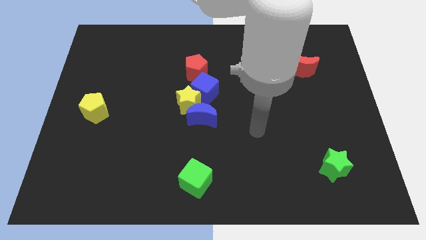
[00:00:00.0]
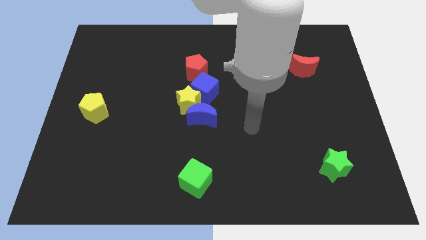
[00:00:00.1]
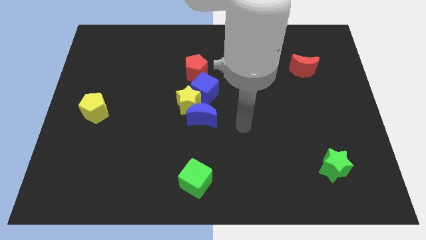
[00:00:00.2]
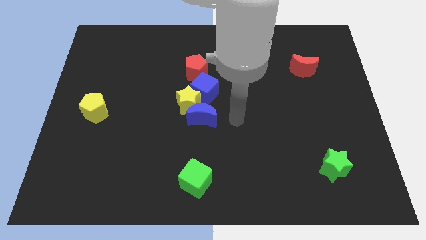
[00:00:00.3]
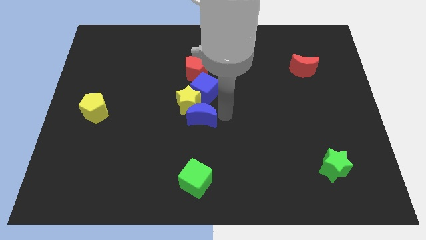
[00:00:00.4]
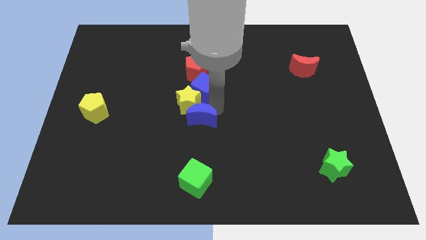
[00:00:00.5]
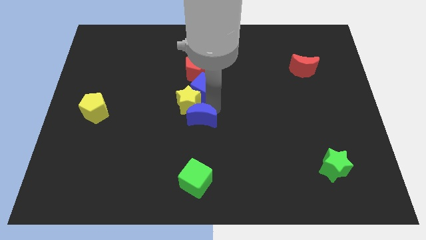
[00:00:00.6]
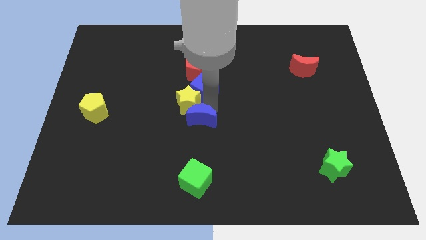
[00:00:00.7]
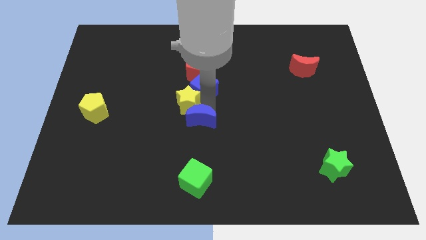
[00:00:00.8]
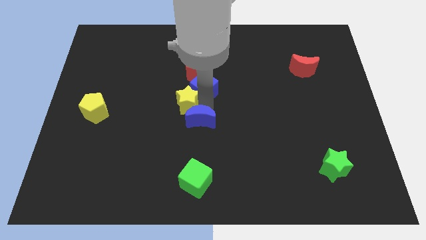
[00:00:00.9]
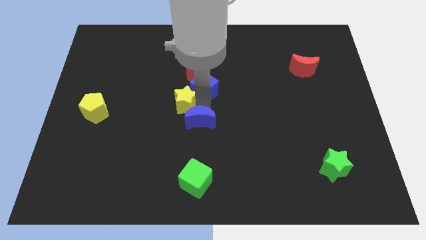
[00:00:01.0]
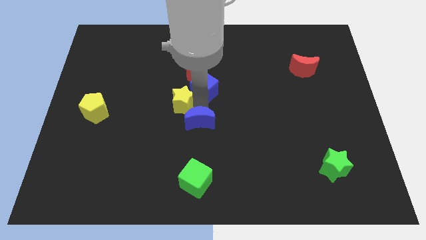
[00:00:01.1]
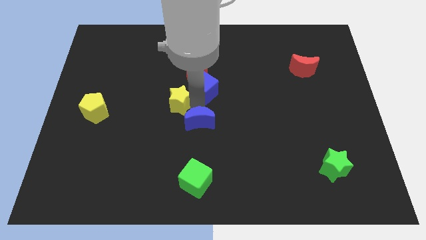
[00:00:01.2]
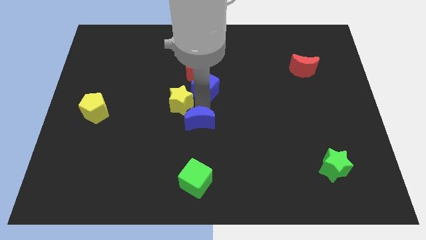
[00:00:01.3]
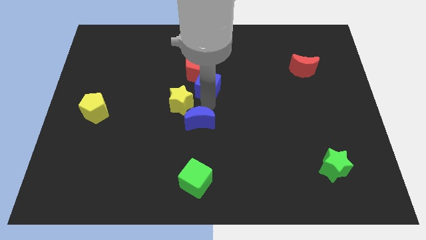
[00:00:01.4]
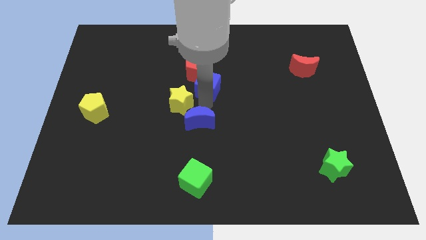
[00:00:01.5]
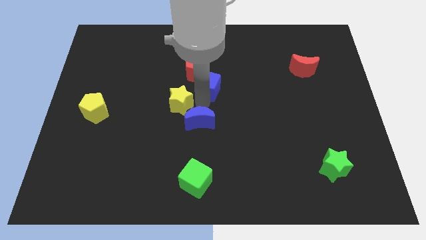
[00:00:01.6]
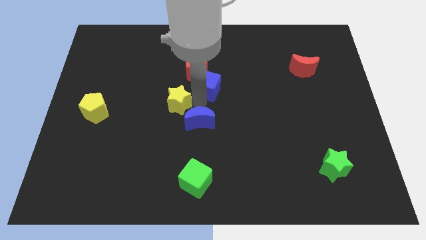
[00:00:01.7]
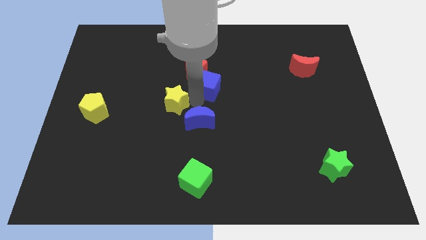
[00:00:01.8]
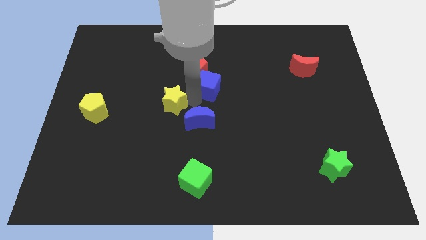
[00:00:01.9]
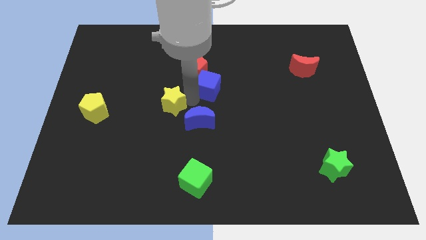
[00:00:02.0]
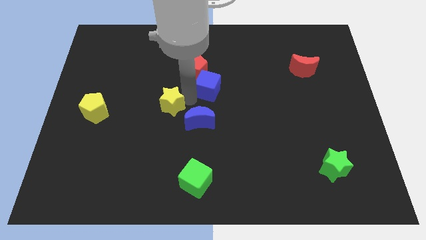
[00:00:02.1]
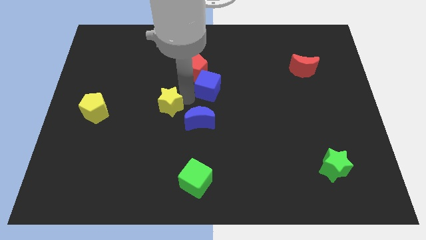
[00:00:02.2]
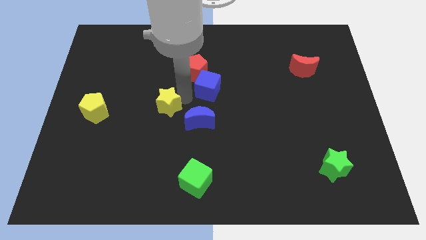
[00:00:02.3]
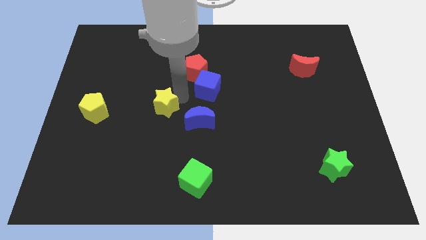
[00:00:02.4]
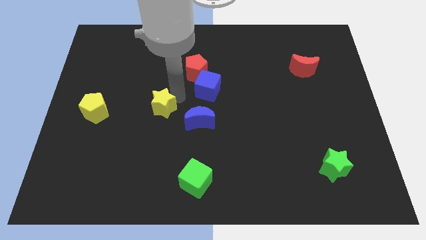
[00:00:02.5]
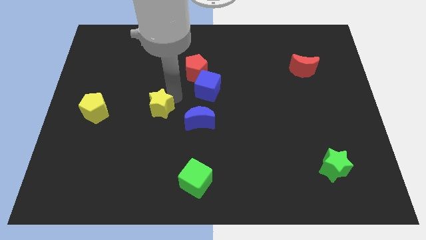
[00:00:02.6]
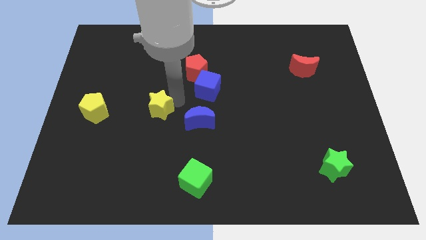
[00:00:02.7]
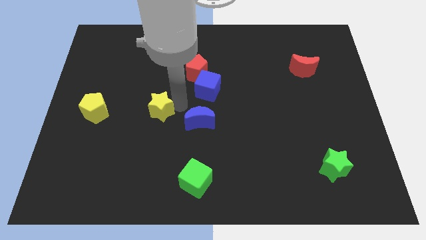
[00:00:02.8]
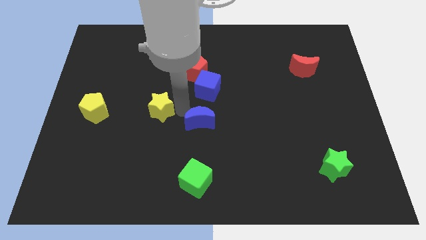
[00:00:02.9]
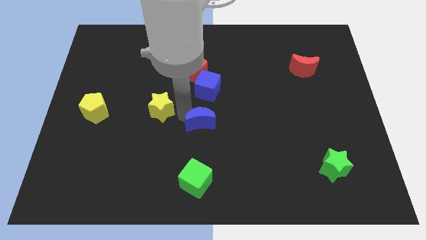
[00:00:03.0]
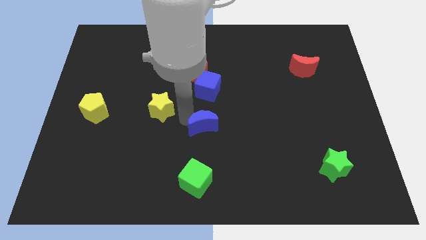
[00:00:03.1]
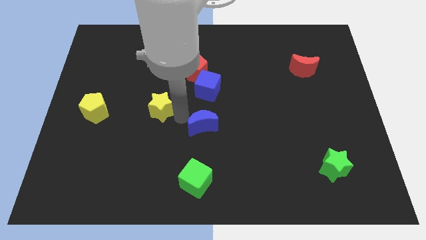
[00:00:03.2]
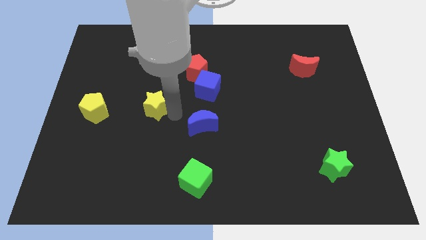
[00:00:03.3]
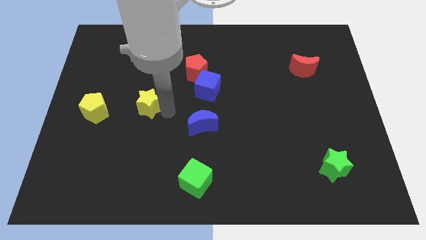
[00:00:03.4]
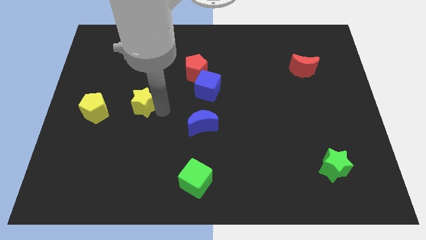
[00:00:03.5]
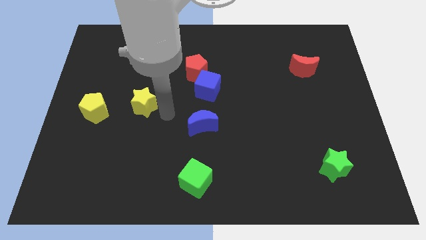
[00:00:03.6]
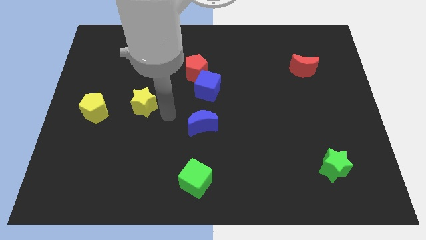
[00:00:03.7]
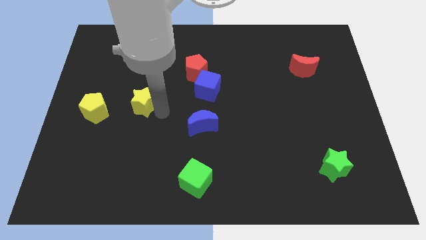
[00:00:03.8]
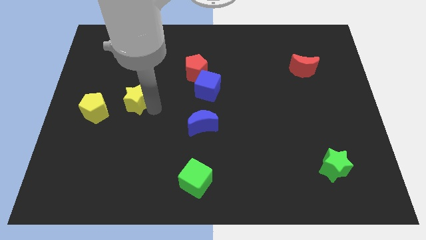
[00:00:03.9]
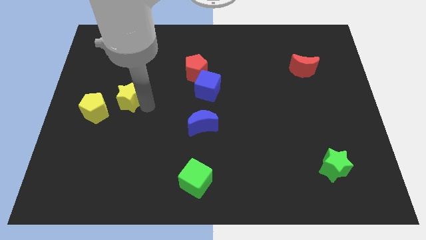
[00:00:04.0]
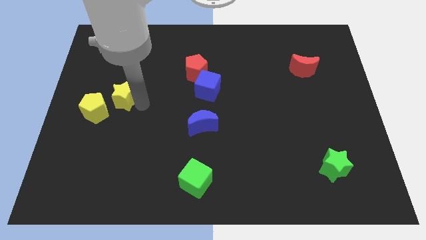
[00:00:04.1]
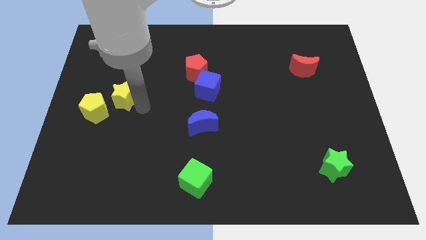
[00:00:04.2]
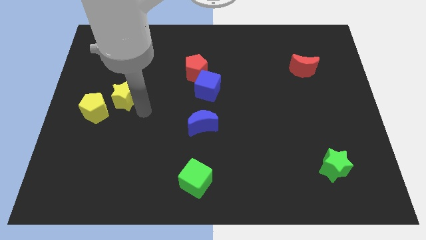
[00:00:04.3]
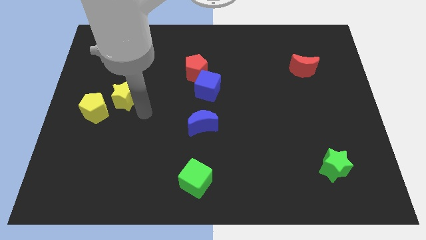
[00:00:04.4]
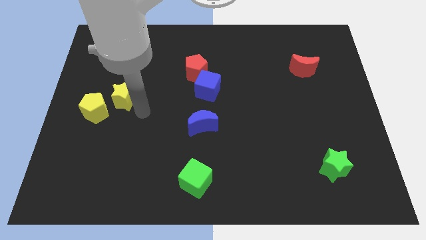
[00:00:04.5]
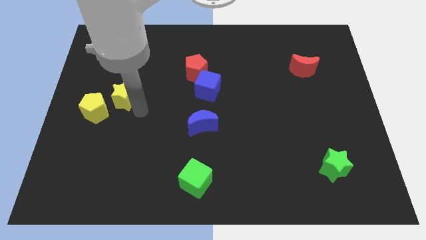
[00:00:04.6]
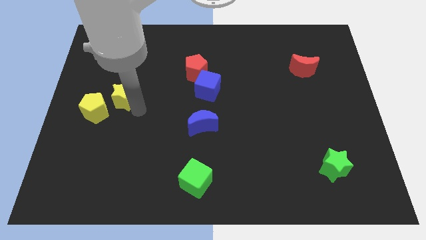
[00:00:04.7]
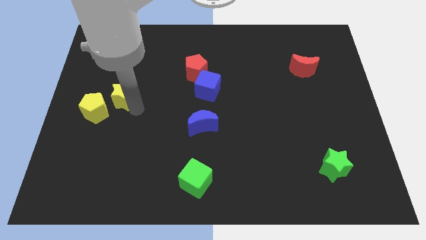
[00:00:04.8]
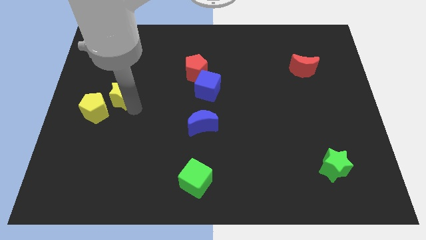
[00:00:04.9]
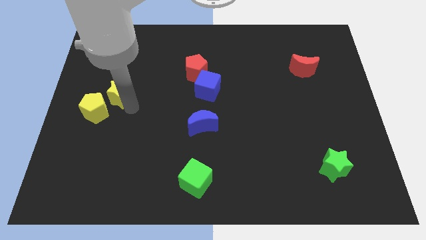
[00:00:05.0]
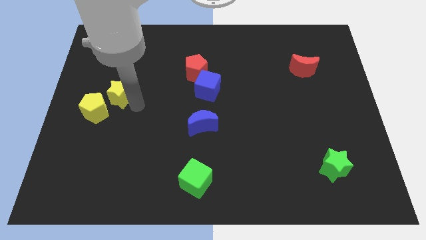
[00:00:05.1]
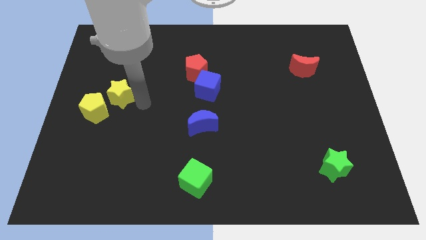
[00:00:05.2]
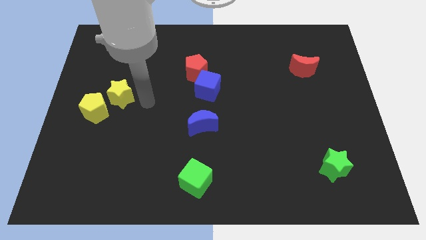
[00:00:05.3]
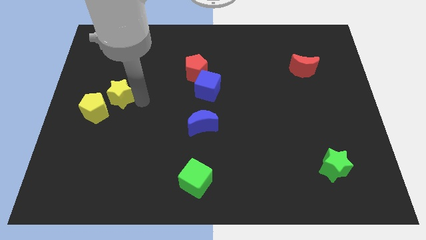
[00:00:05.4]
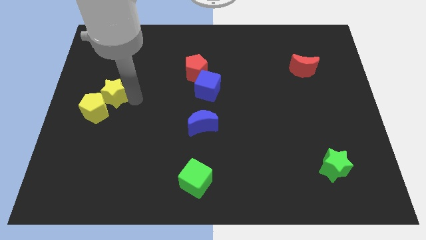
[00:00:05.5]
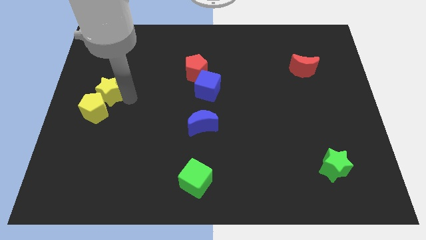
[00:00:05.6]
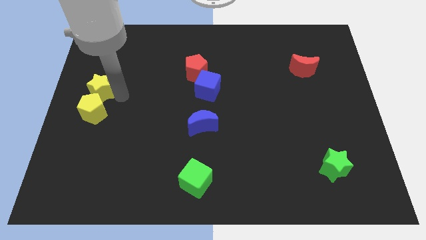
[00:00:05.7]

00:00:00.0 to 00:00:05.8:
move the yellow star to the left side

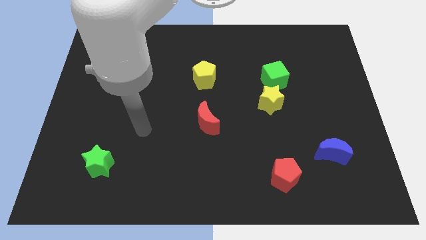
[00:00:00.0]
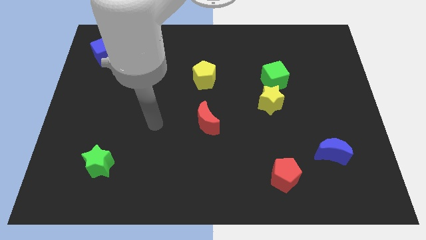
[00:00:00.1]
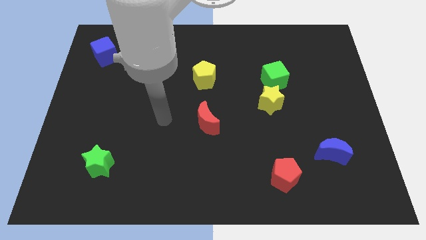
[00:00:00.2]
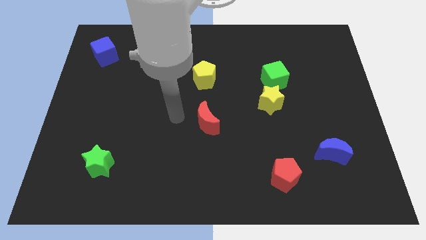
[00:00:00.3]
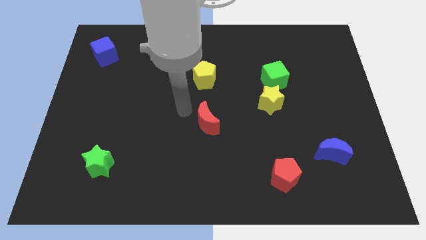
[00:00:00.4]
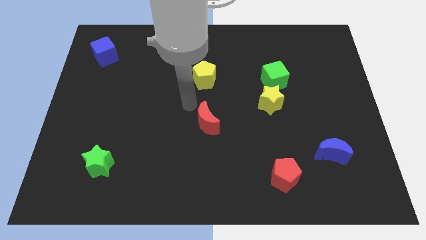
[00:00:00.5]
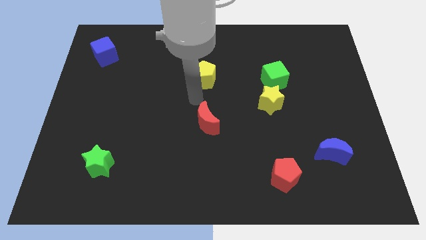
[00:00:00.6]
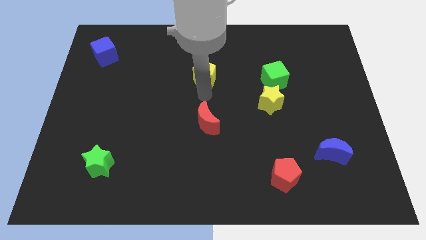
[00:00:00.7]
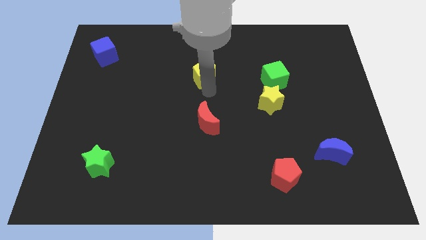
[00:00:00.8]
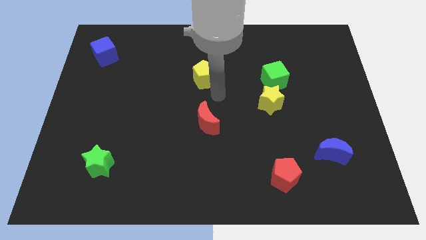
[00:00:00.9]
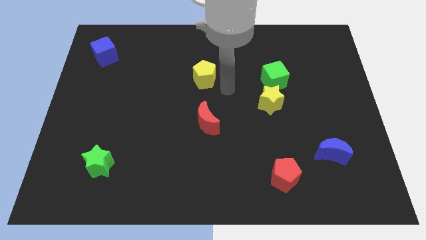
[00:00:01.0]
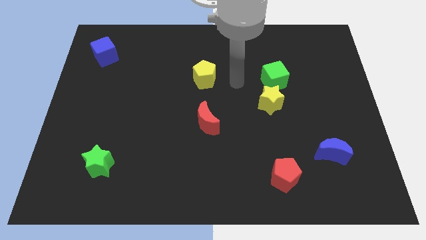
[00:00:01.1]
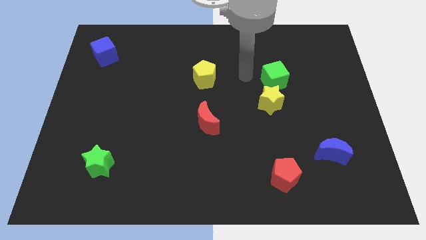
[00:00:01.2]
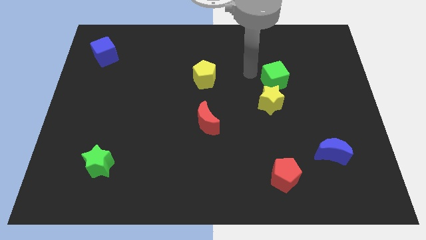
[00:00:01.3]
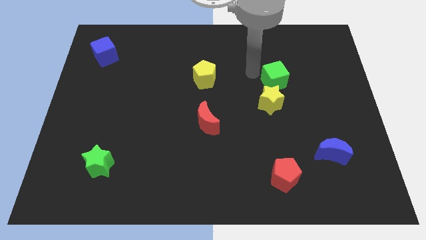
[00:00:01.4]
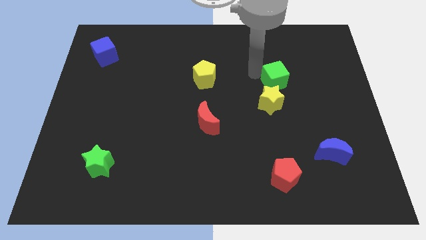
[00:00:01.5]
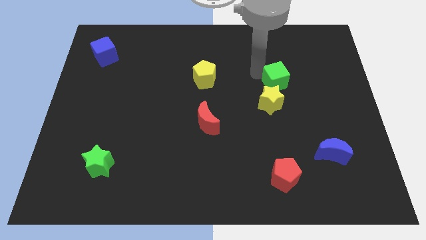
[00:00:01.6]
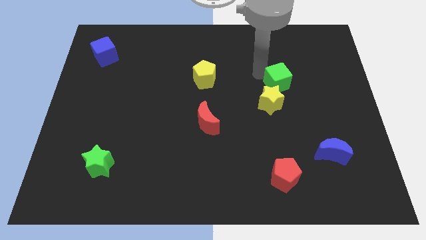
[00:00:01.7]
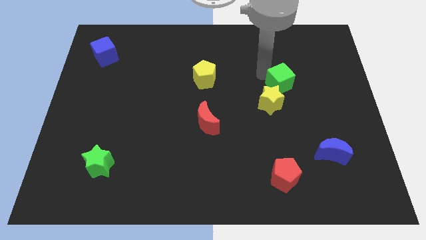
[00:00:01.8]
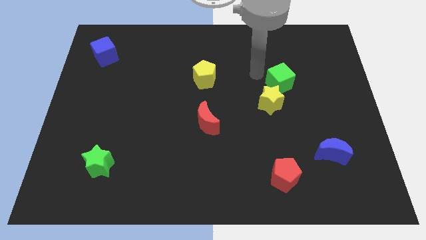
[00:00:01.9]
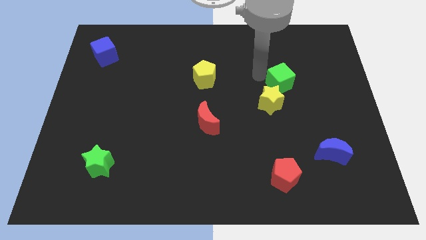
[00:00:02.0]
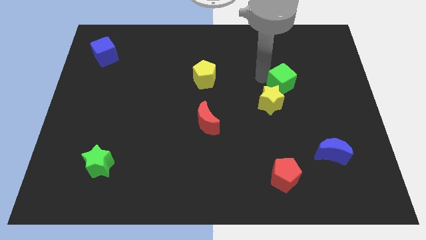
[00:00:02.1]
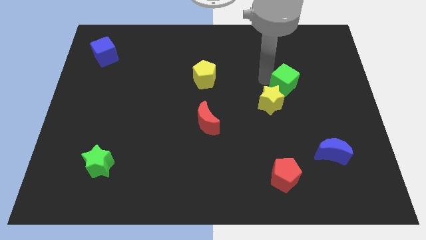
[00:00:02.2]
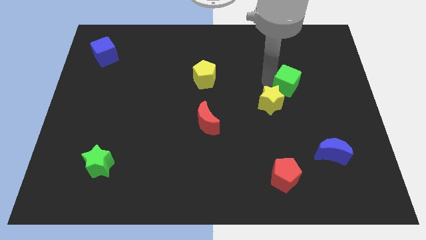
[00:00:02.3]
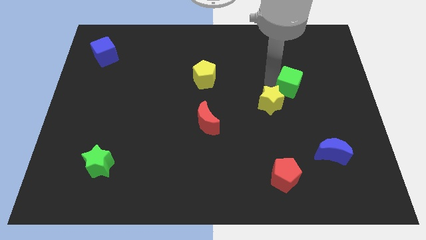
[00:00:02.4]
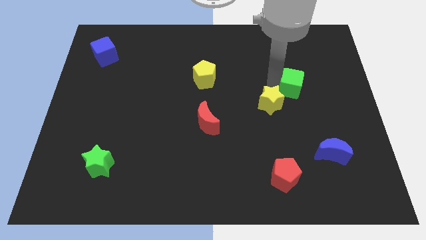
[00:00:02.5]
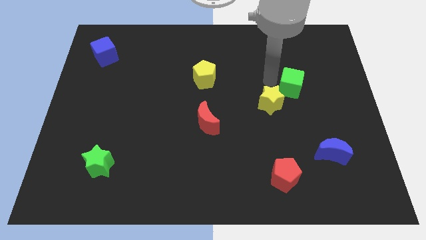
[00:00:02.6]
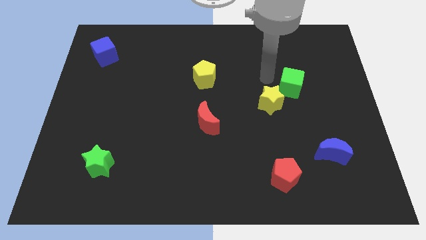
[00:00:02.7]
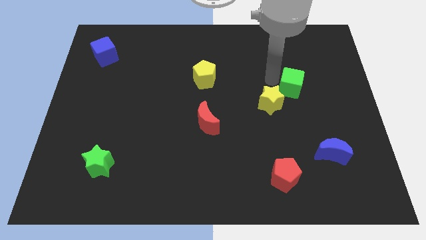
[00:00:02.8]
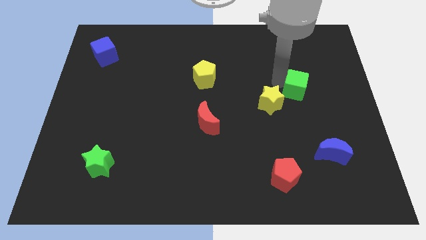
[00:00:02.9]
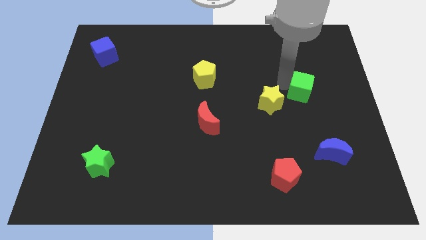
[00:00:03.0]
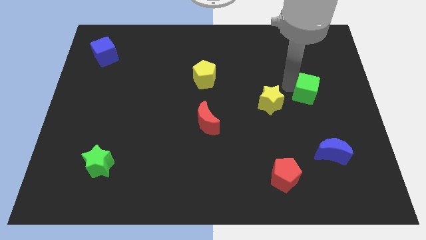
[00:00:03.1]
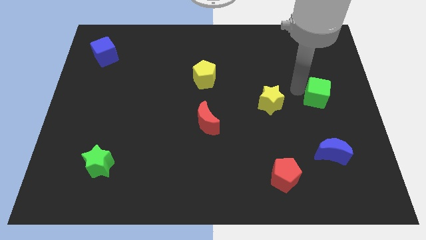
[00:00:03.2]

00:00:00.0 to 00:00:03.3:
push the green cube to the right side of the board
